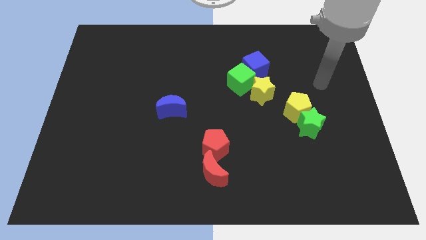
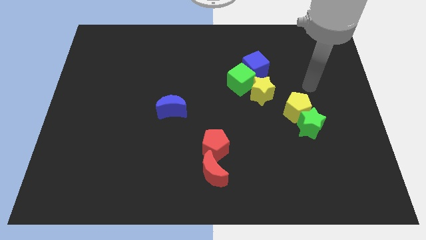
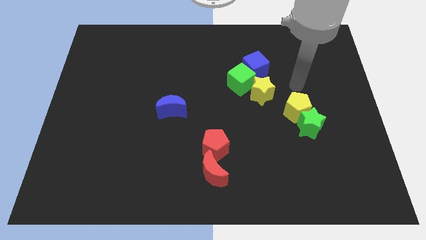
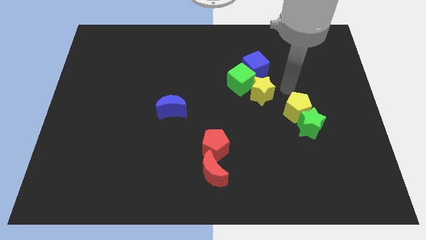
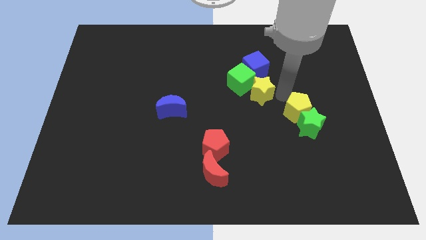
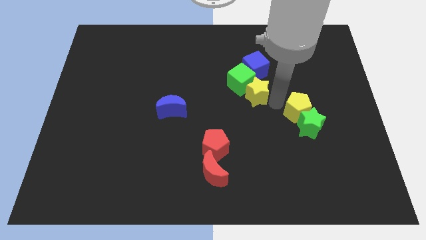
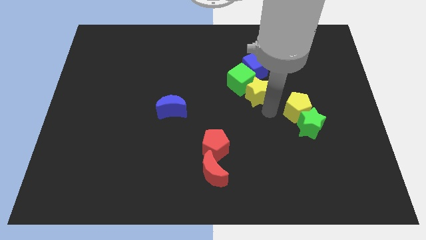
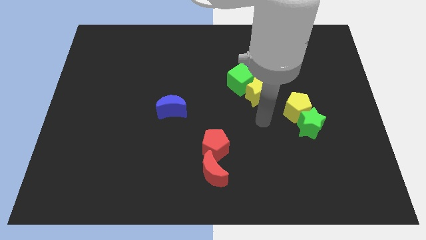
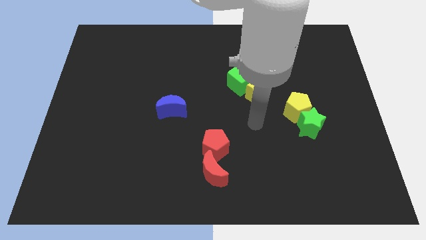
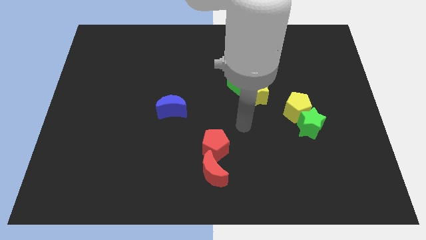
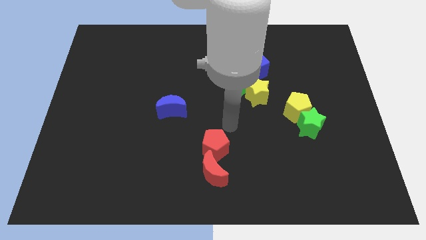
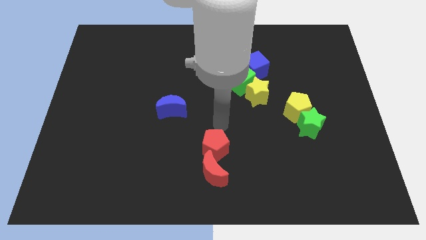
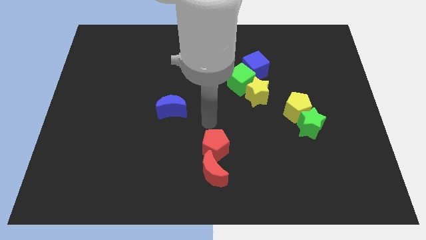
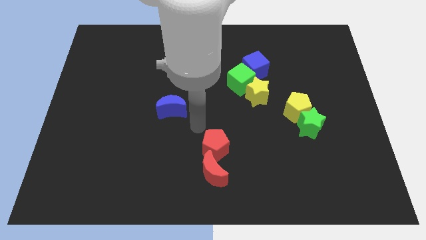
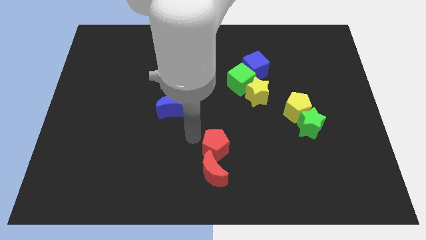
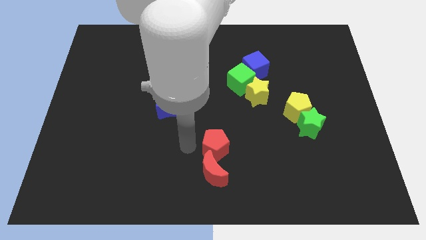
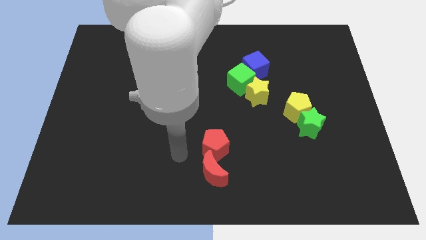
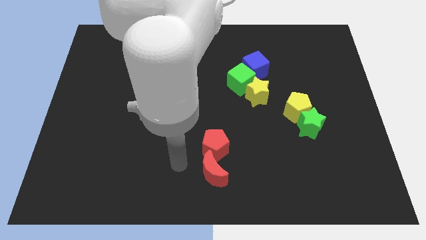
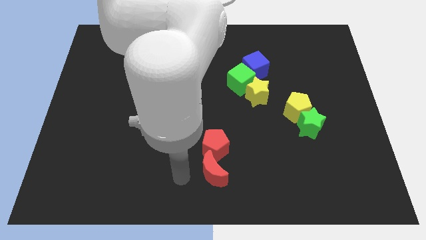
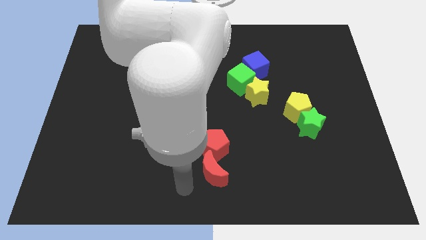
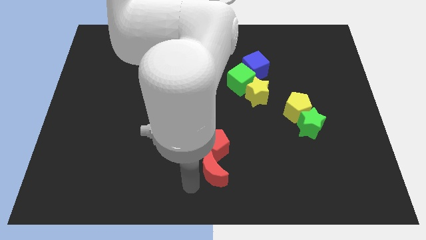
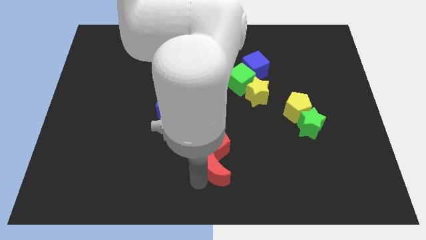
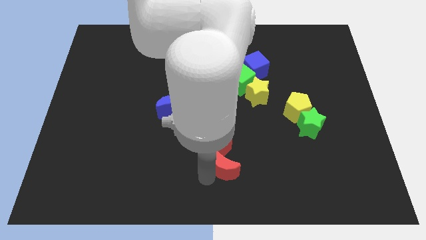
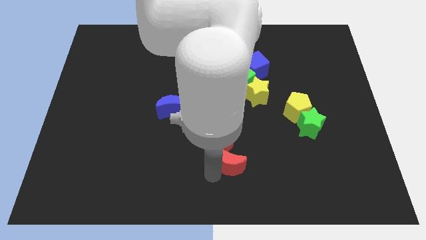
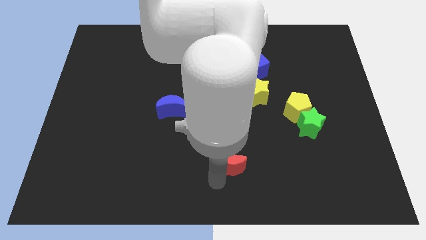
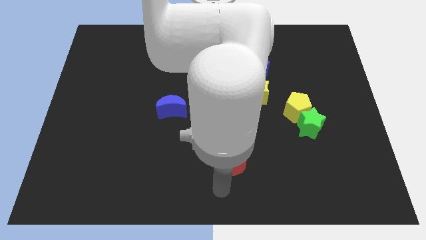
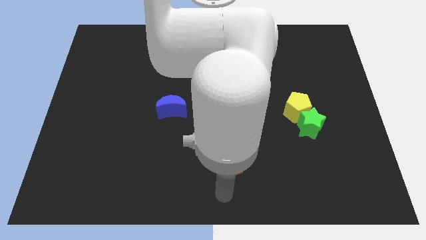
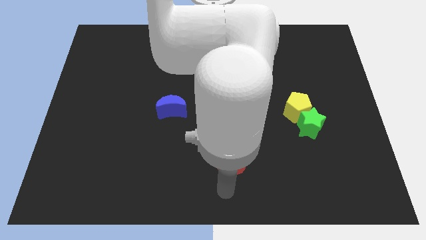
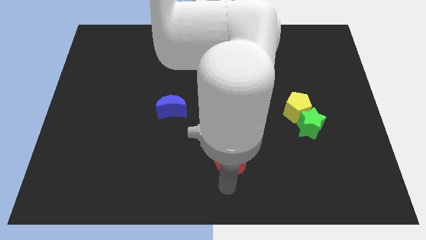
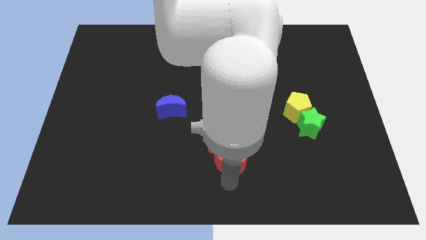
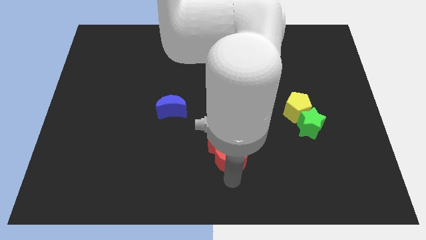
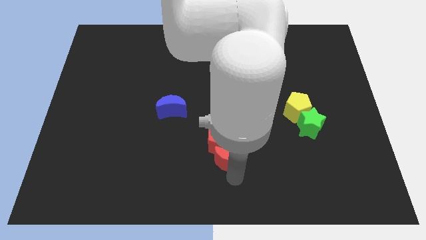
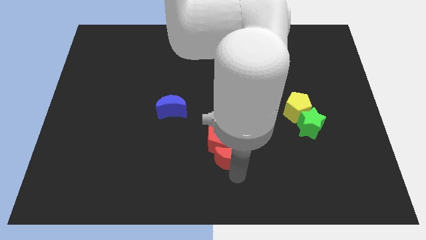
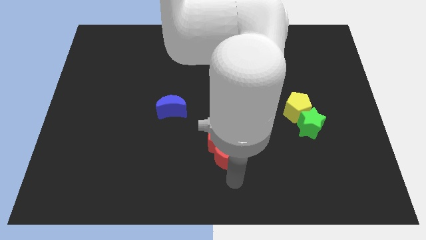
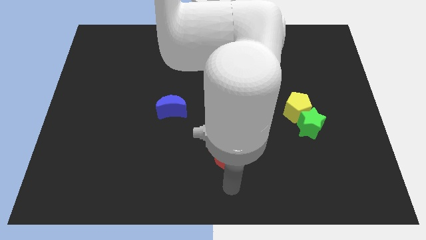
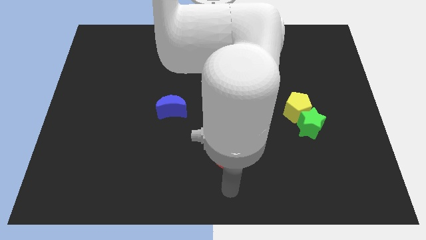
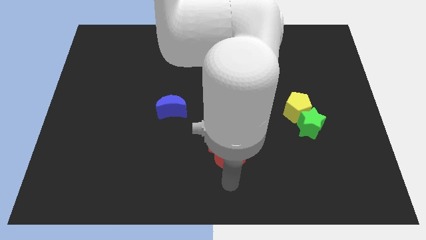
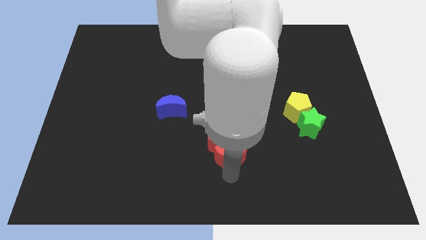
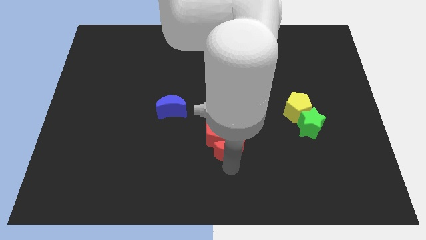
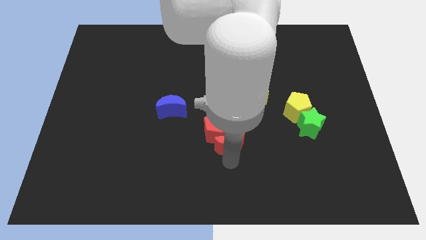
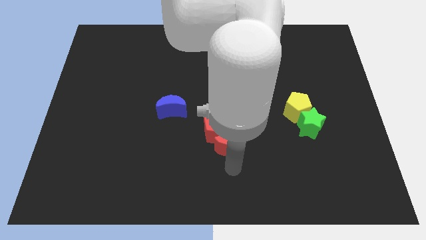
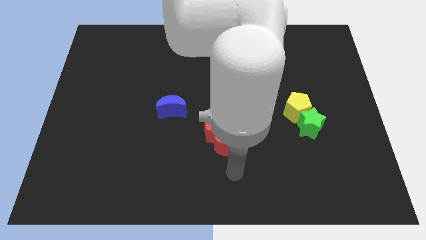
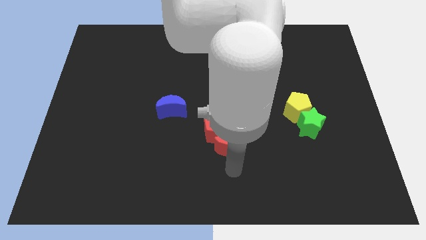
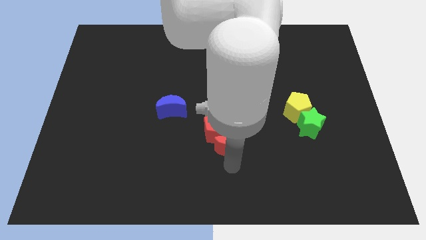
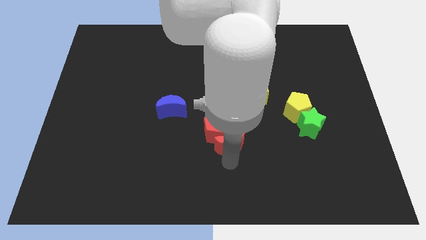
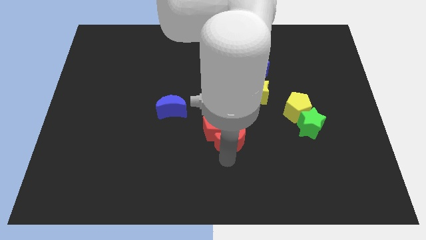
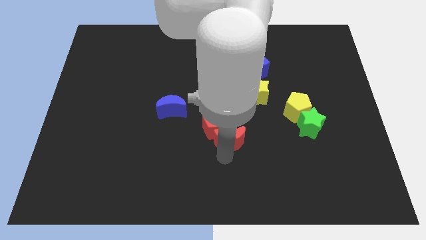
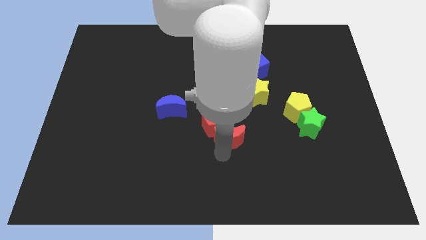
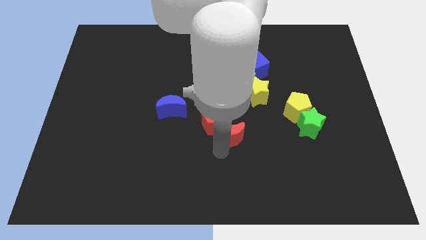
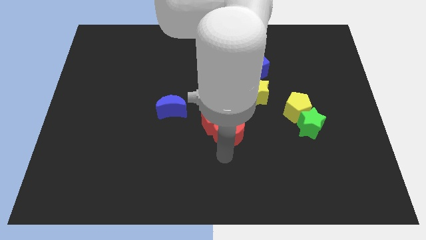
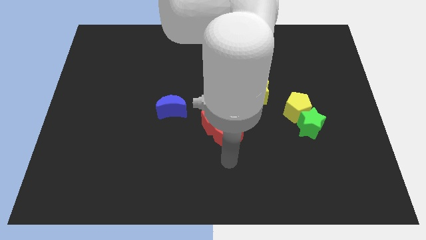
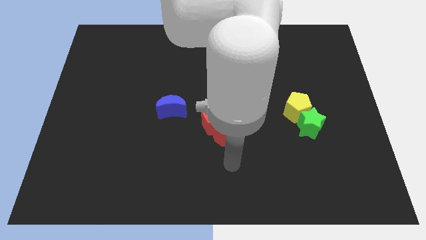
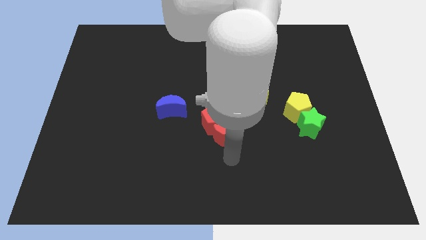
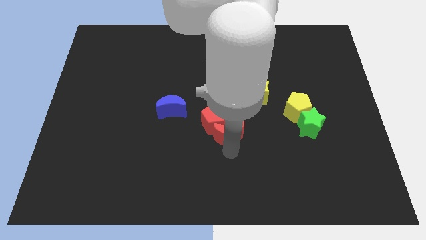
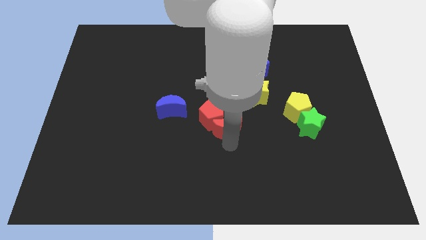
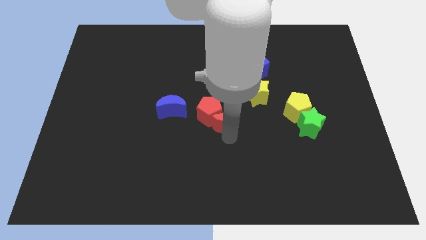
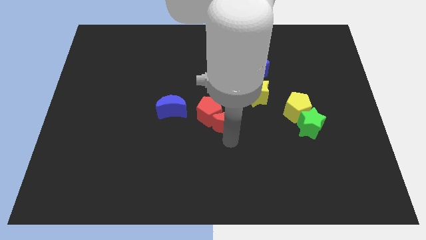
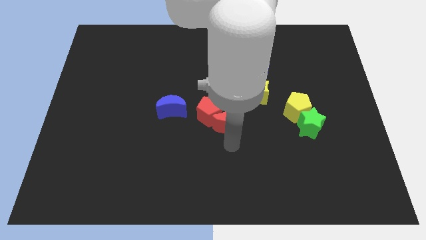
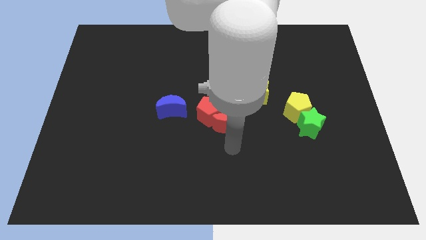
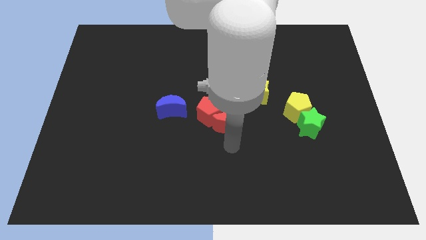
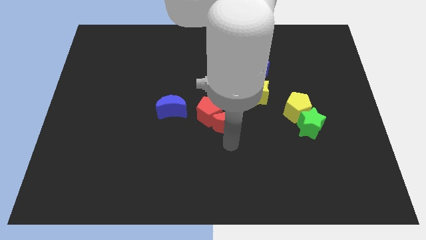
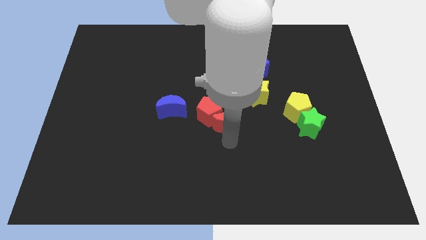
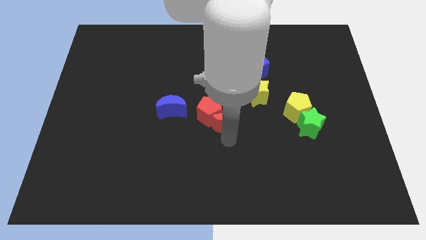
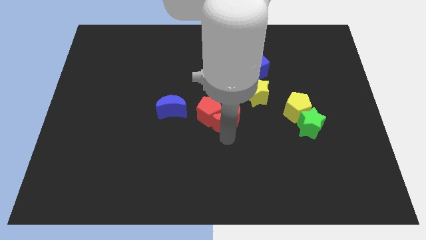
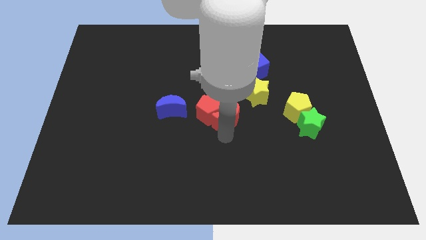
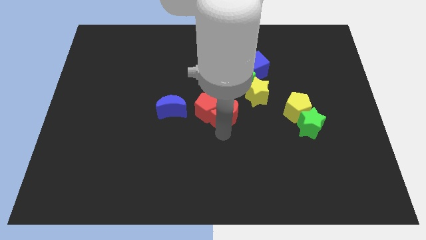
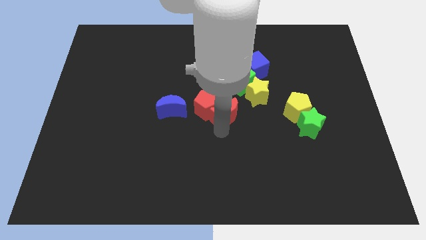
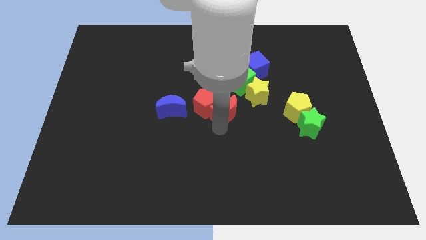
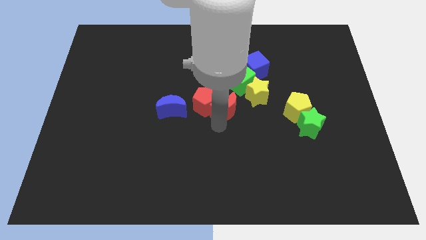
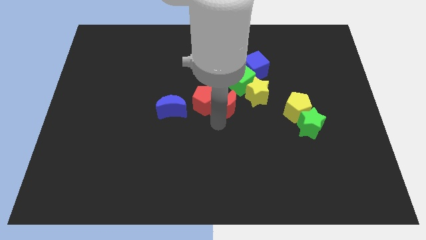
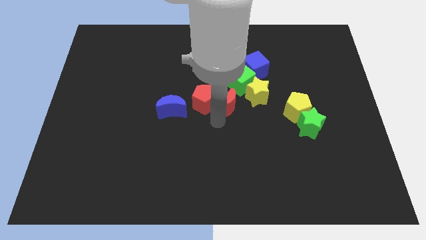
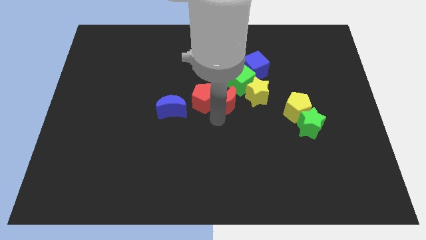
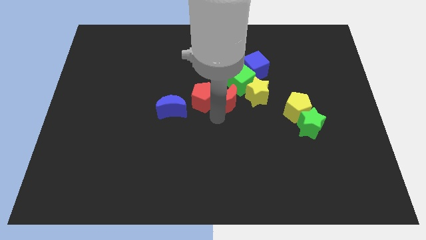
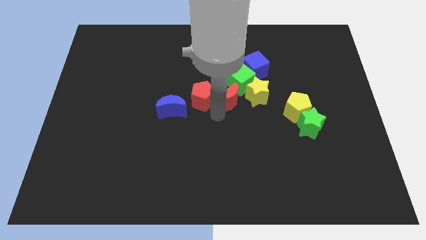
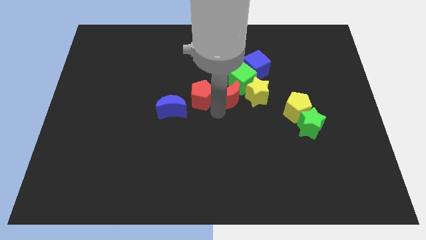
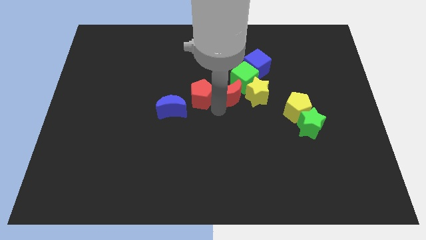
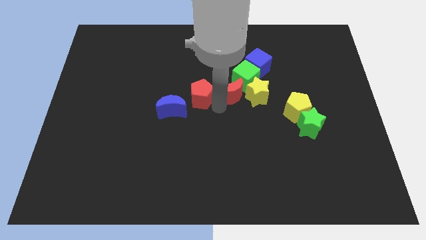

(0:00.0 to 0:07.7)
push the red moon upwards

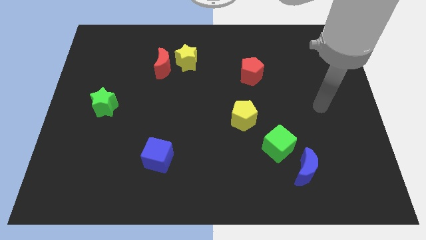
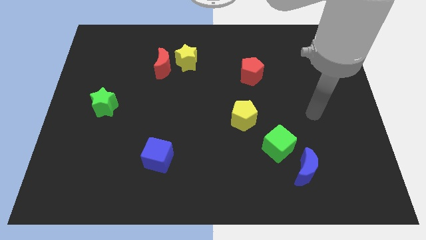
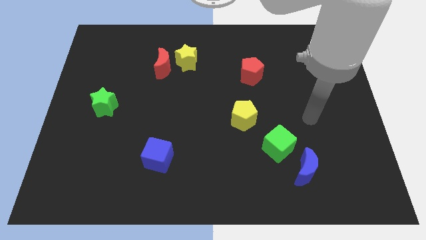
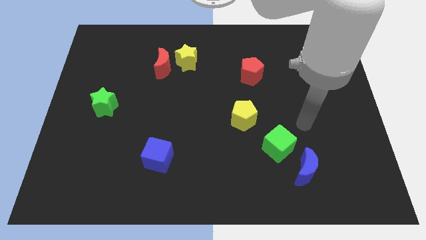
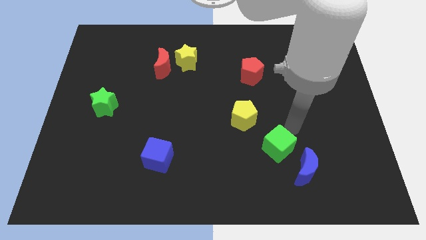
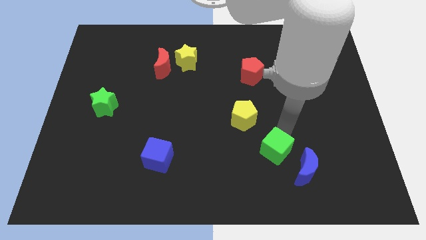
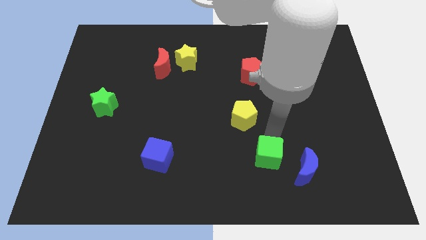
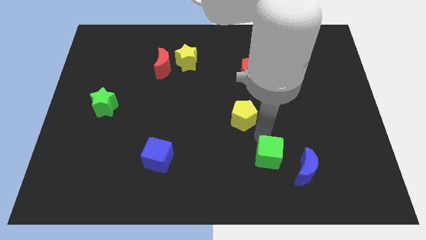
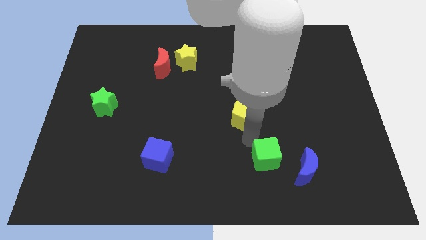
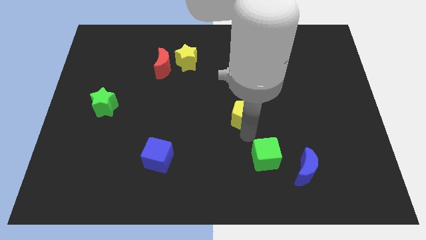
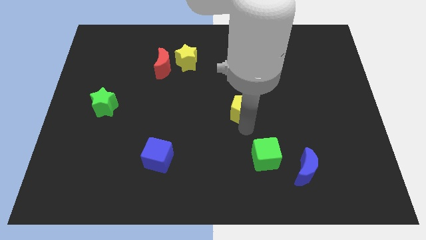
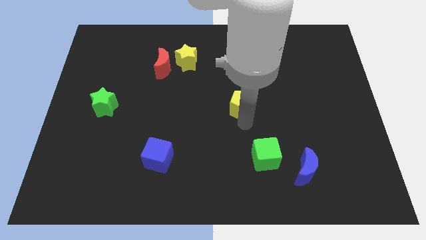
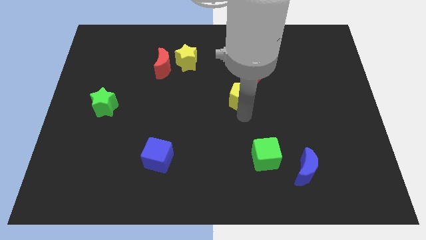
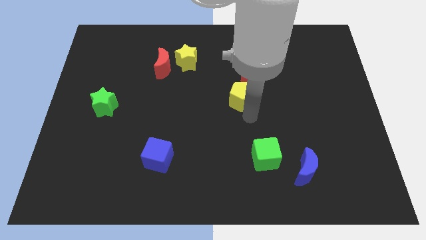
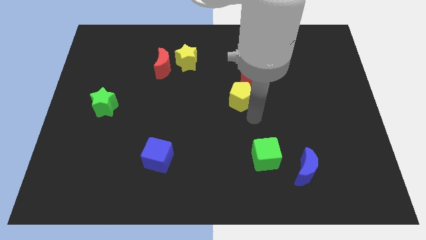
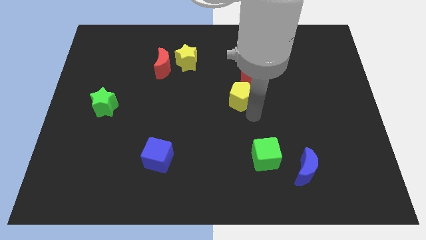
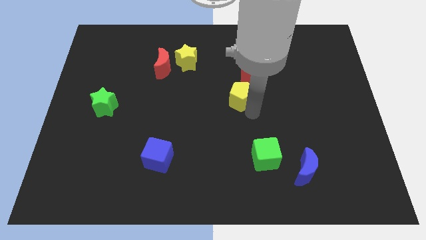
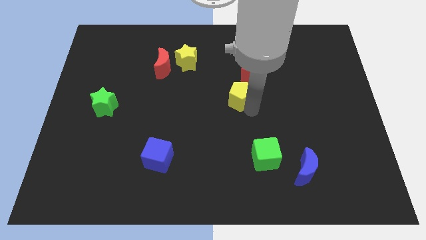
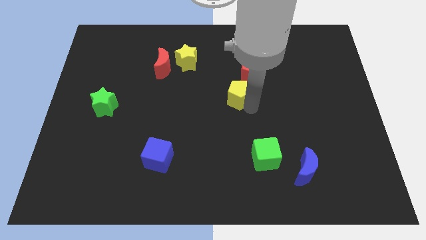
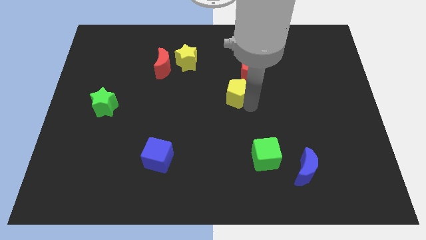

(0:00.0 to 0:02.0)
slide the yellow pentagon slightly upwards
